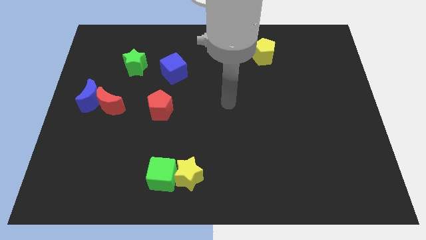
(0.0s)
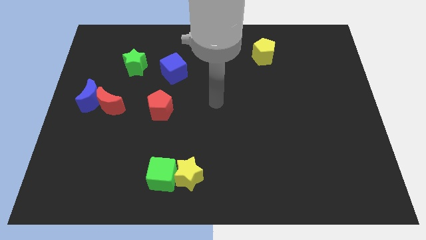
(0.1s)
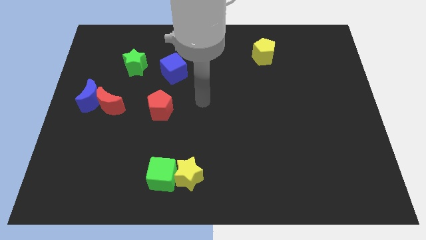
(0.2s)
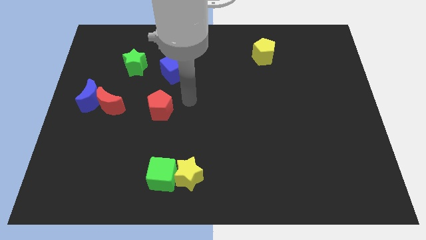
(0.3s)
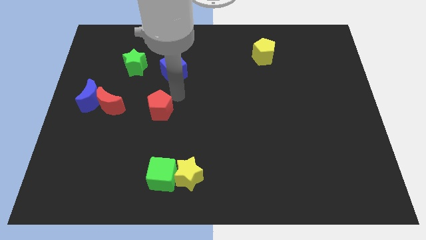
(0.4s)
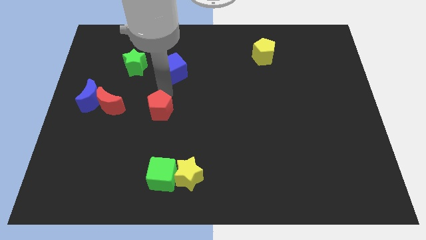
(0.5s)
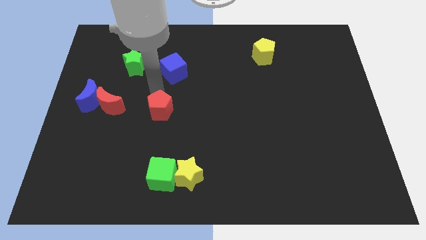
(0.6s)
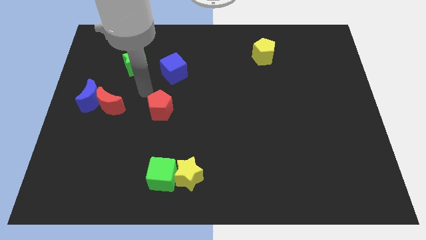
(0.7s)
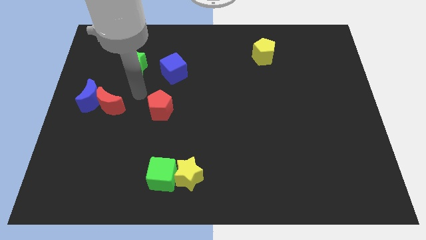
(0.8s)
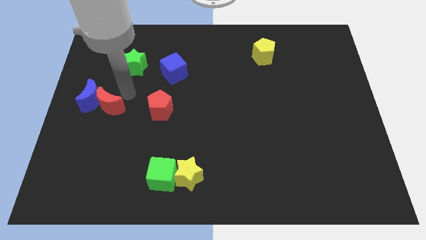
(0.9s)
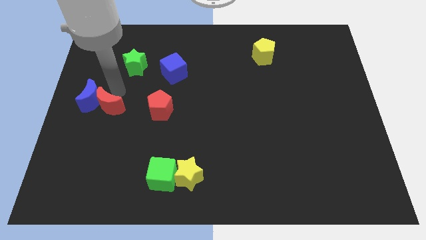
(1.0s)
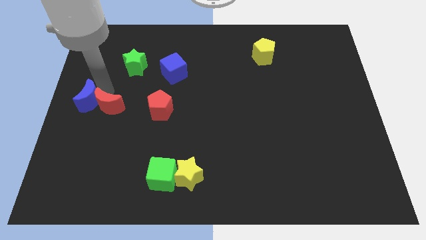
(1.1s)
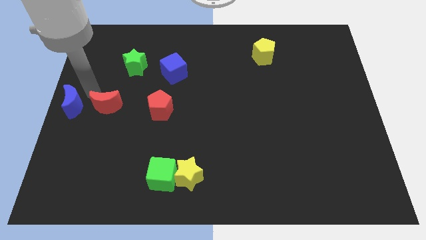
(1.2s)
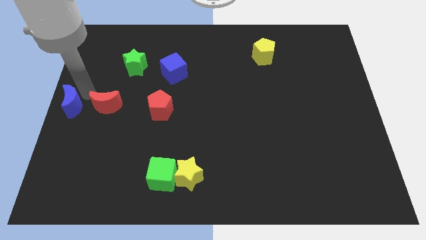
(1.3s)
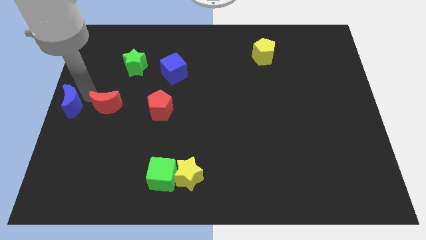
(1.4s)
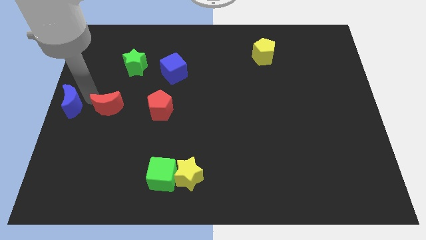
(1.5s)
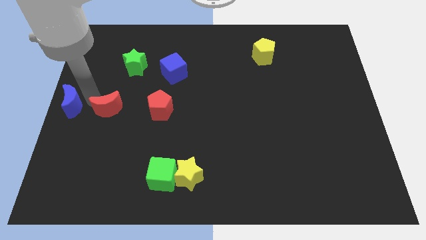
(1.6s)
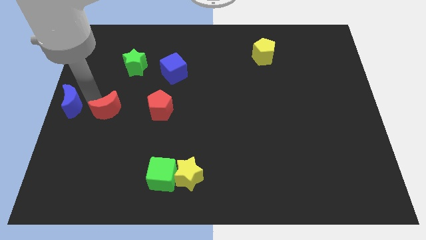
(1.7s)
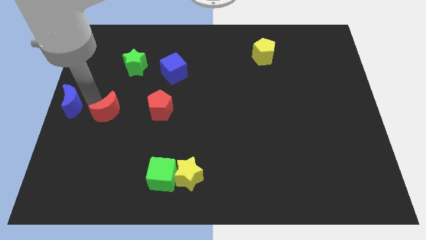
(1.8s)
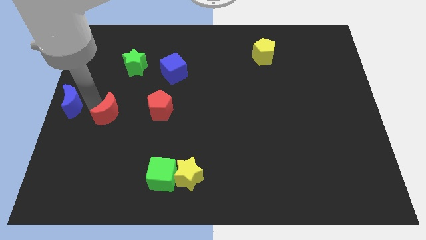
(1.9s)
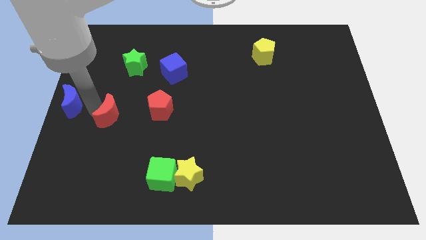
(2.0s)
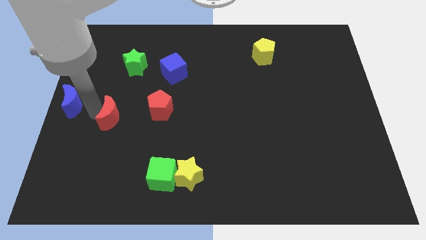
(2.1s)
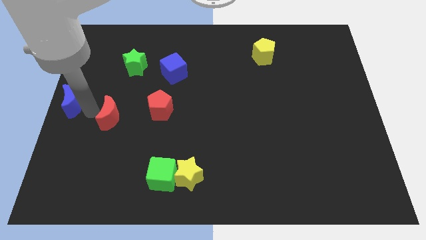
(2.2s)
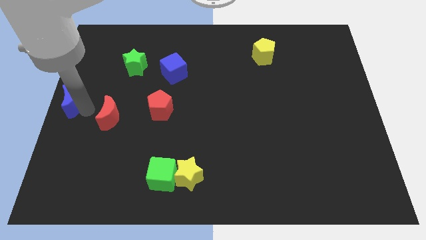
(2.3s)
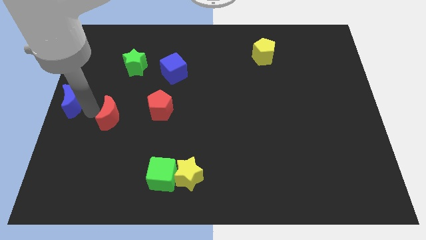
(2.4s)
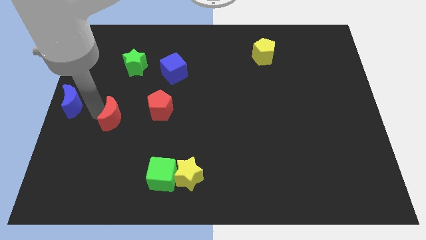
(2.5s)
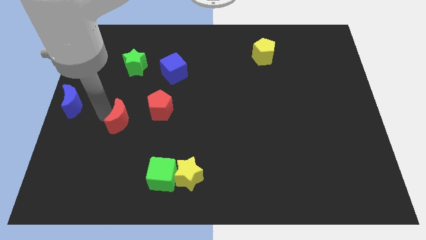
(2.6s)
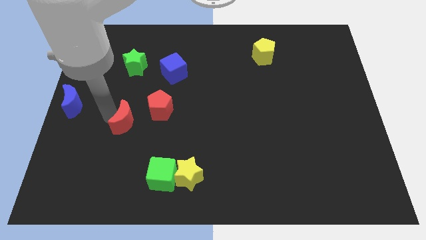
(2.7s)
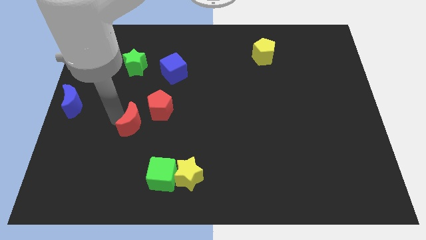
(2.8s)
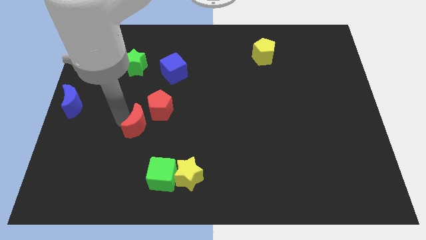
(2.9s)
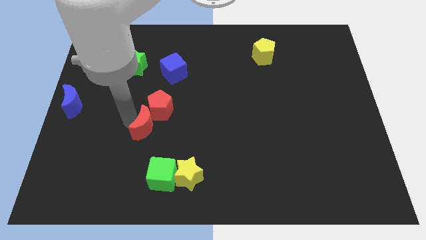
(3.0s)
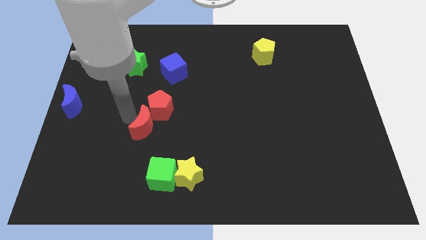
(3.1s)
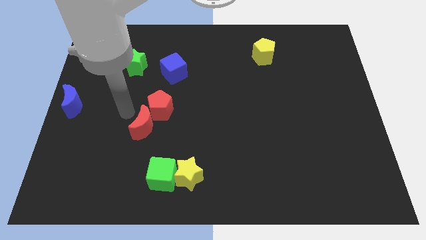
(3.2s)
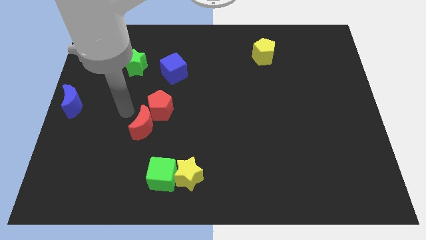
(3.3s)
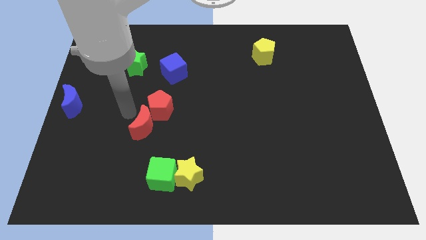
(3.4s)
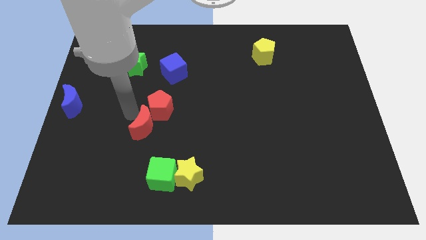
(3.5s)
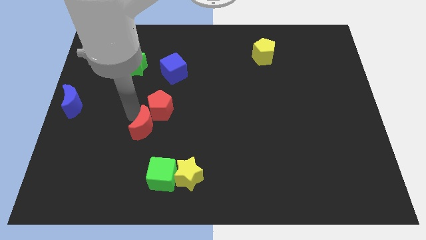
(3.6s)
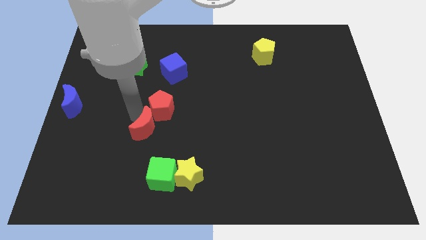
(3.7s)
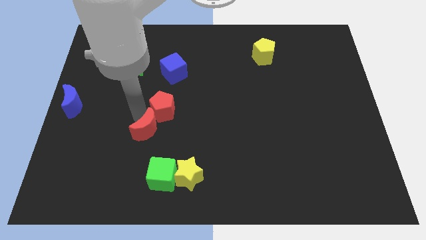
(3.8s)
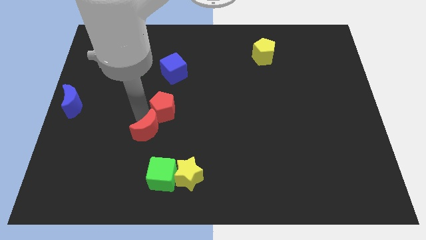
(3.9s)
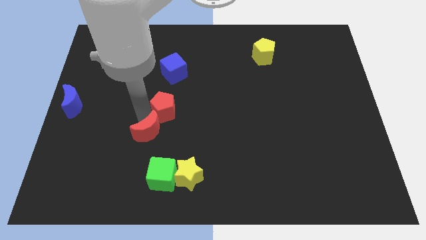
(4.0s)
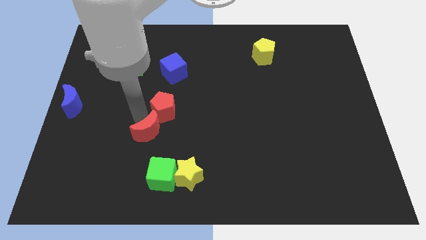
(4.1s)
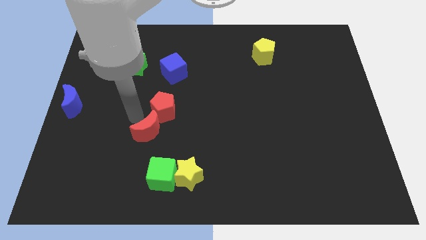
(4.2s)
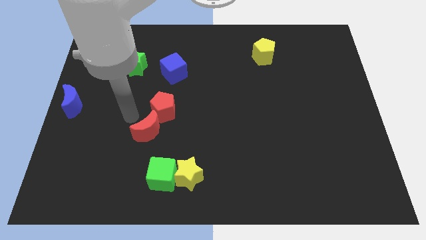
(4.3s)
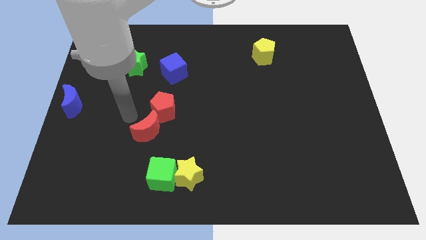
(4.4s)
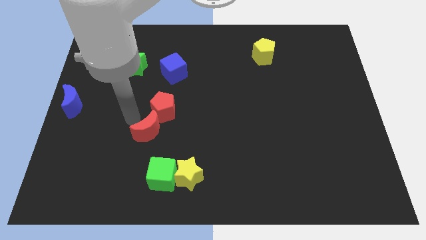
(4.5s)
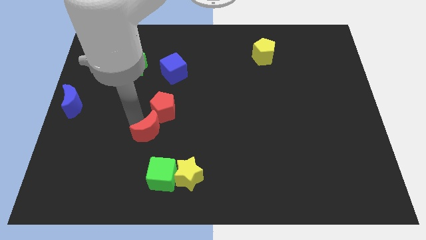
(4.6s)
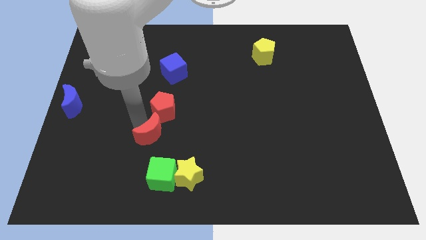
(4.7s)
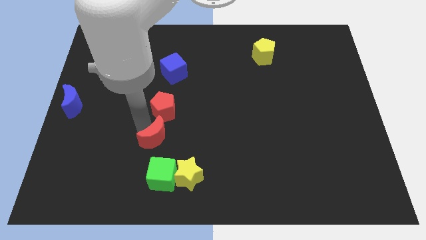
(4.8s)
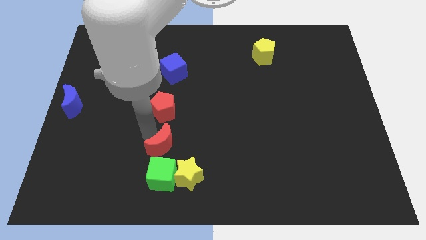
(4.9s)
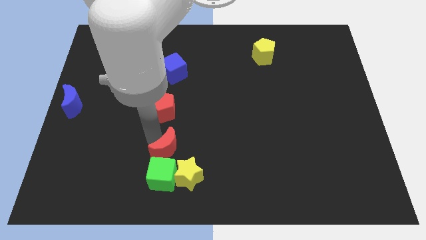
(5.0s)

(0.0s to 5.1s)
put the red moon diagonally up and to the right of the green cube

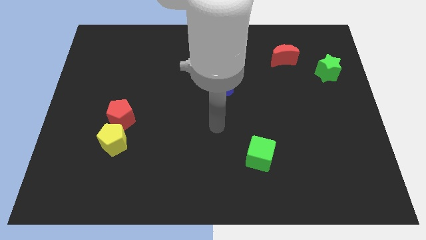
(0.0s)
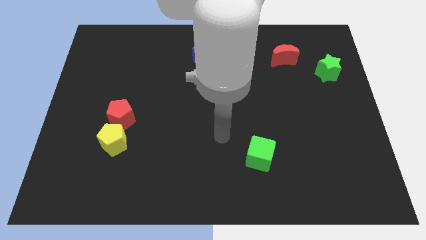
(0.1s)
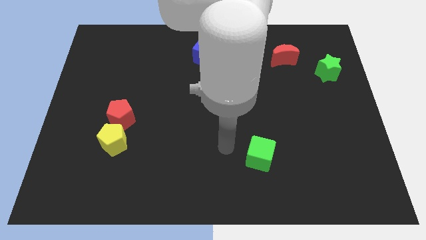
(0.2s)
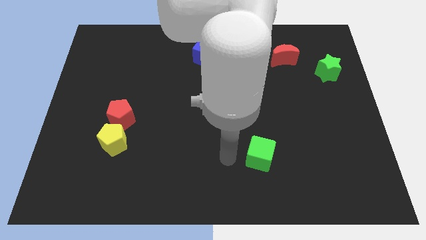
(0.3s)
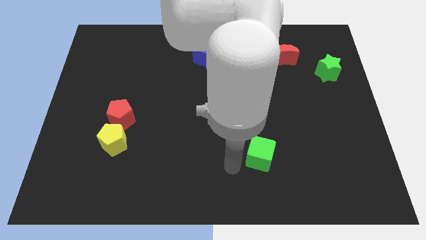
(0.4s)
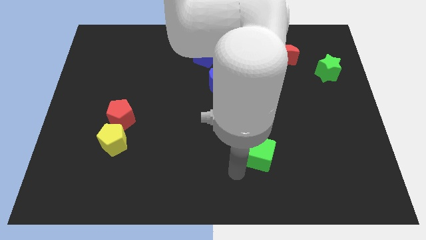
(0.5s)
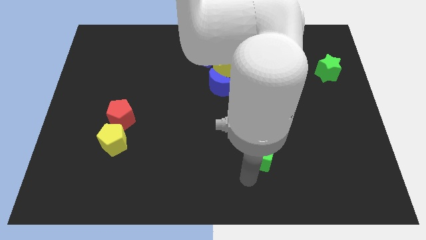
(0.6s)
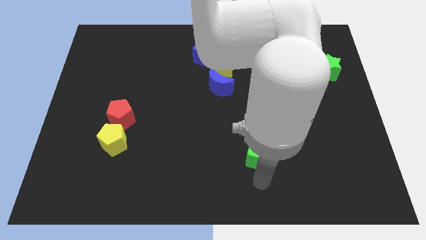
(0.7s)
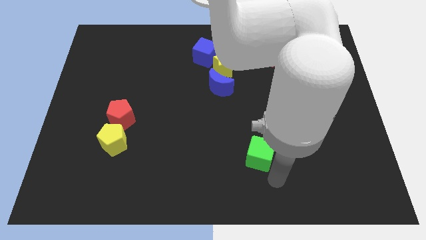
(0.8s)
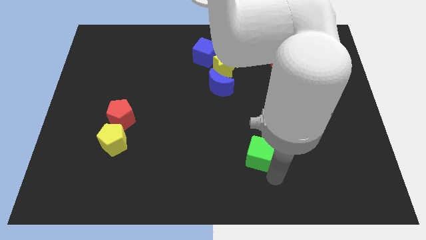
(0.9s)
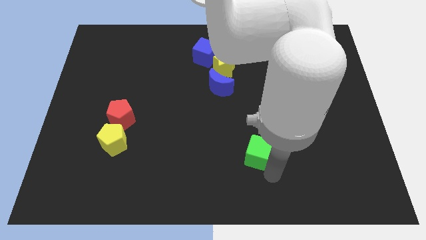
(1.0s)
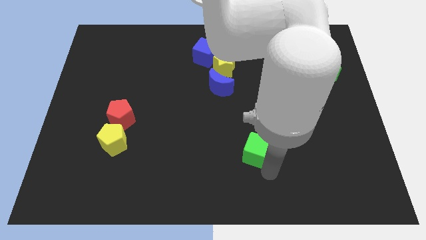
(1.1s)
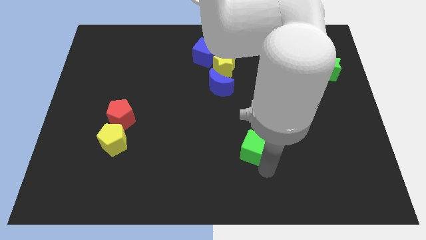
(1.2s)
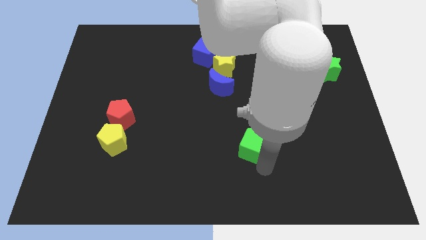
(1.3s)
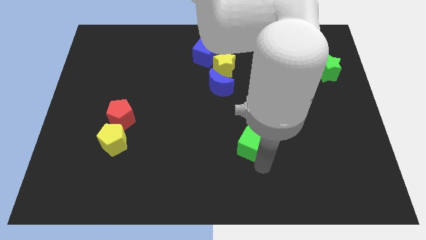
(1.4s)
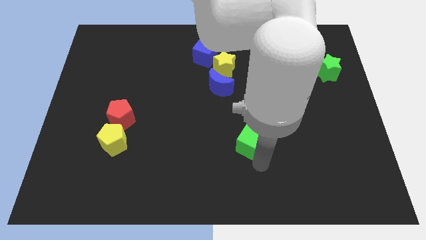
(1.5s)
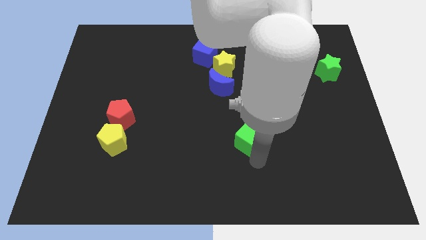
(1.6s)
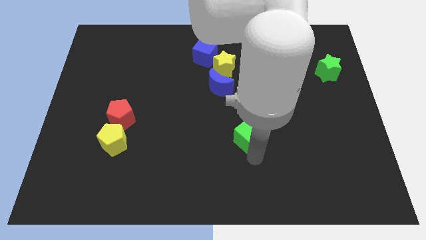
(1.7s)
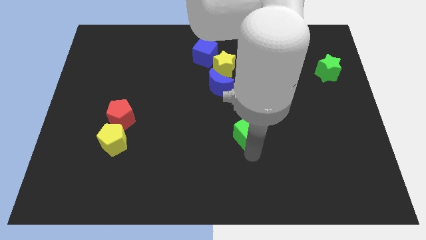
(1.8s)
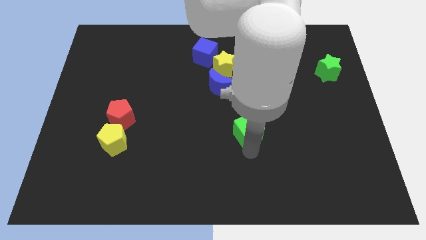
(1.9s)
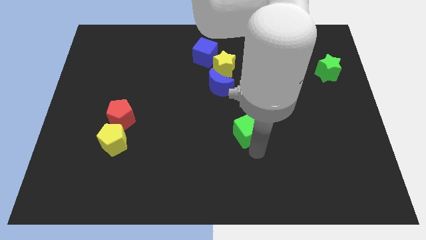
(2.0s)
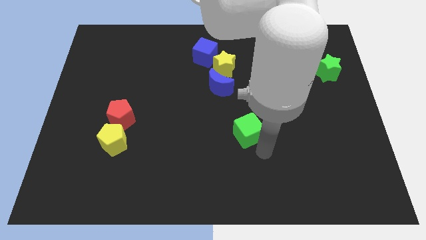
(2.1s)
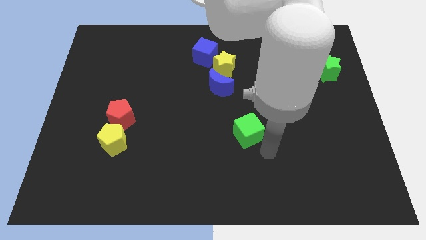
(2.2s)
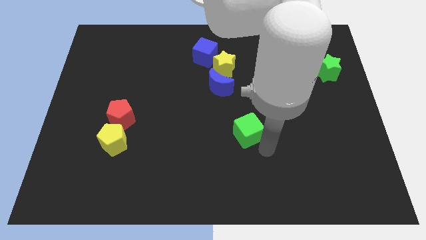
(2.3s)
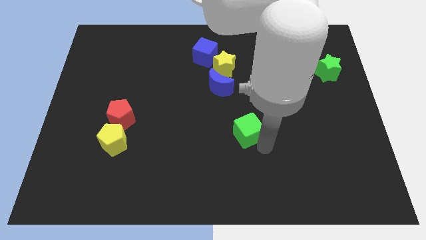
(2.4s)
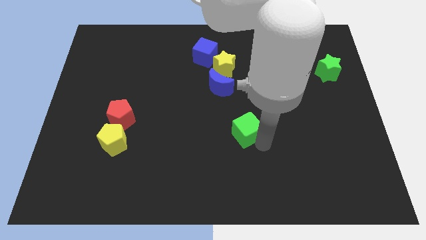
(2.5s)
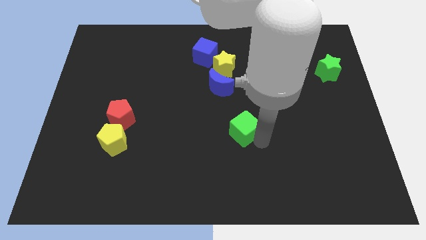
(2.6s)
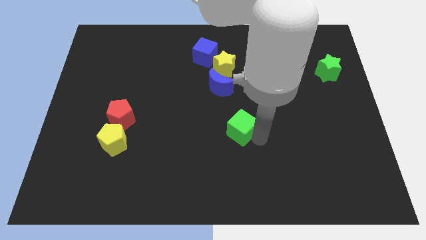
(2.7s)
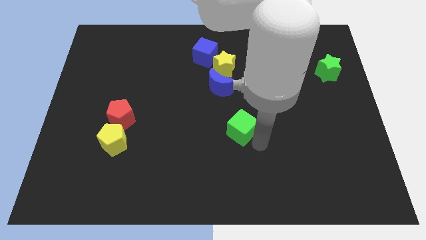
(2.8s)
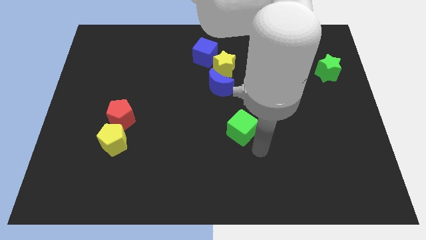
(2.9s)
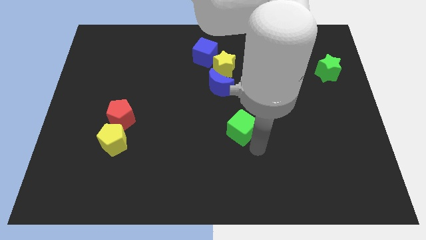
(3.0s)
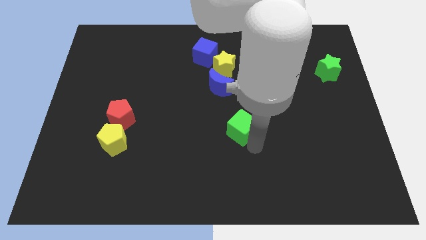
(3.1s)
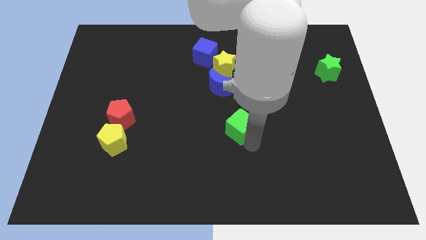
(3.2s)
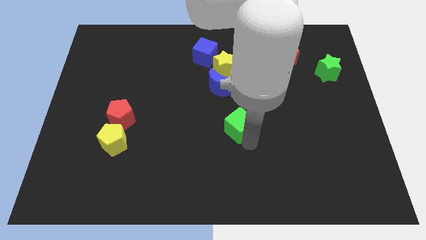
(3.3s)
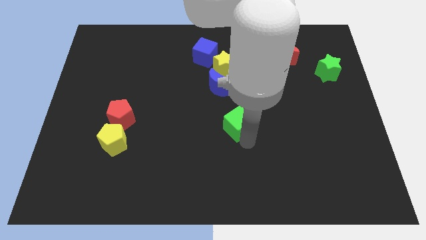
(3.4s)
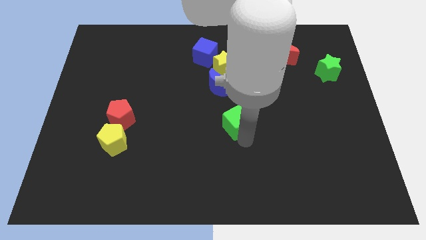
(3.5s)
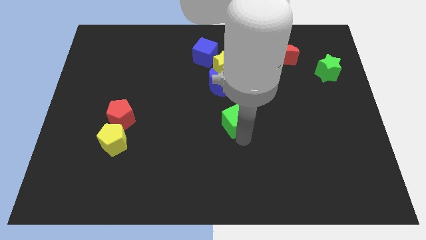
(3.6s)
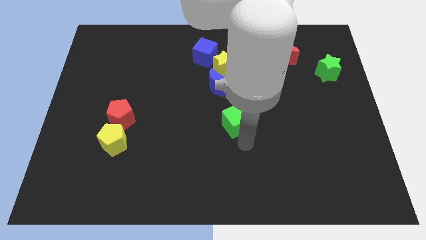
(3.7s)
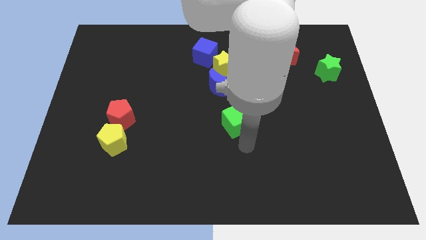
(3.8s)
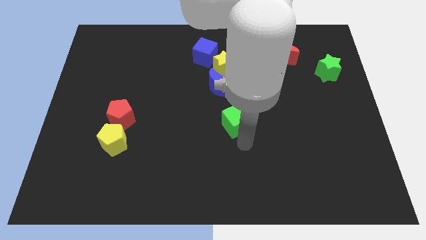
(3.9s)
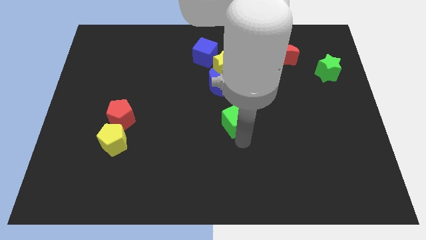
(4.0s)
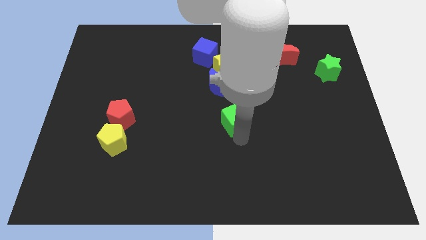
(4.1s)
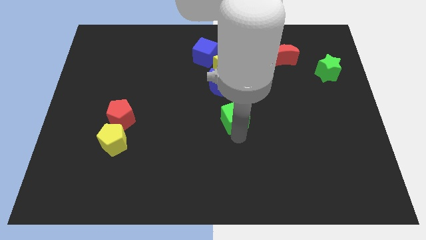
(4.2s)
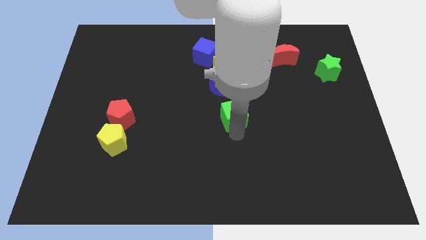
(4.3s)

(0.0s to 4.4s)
push the green cube to the bottom side of the yellow star
